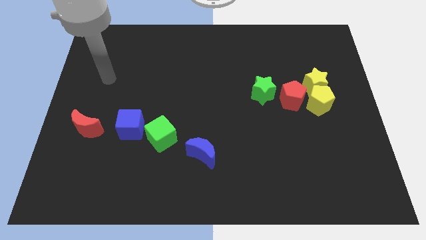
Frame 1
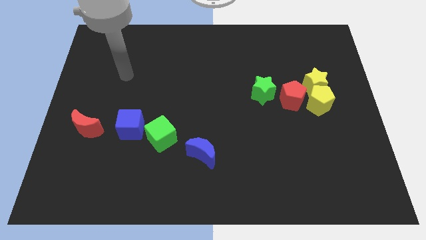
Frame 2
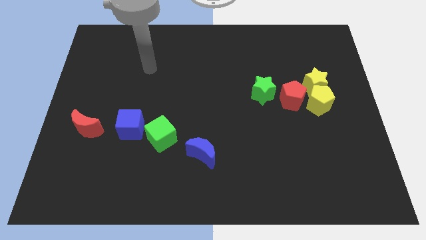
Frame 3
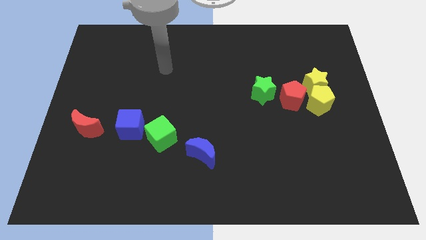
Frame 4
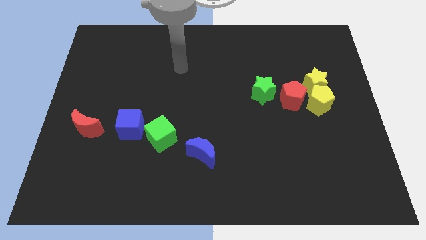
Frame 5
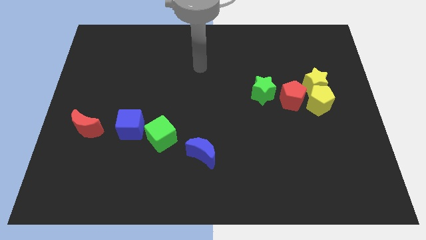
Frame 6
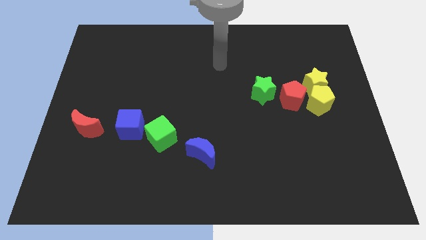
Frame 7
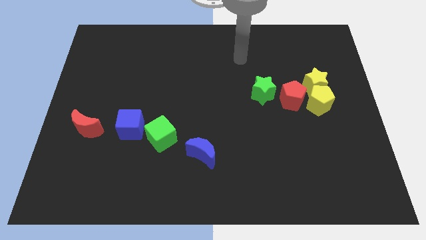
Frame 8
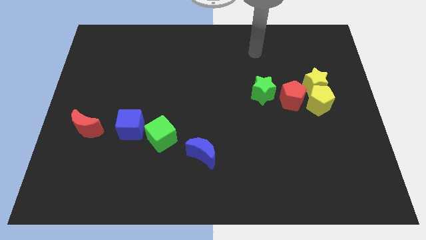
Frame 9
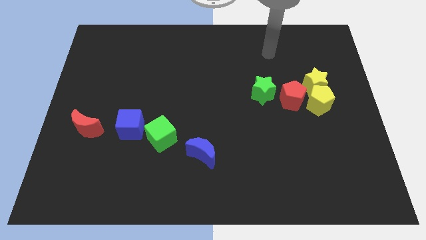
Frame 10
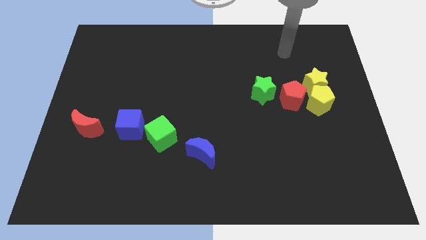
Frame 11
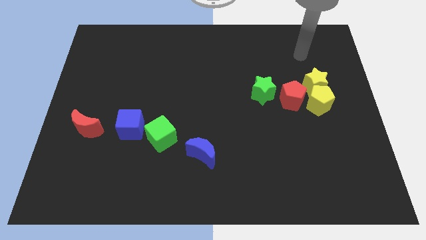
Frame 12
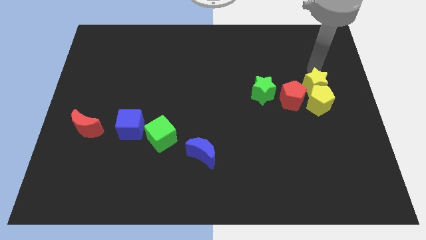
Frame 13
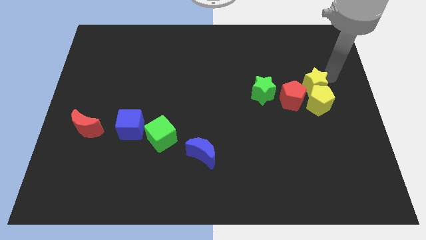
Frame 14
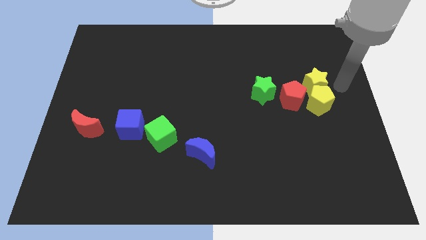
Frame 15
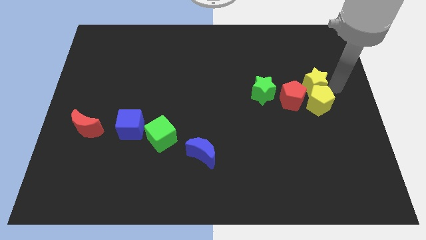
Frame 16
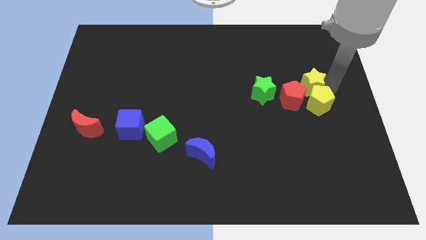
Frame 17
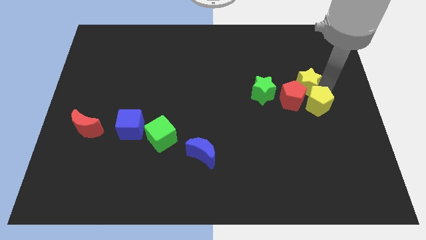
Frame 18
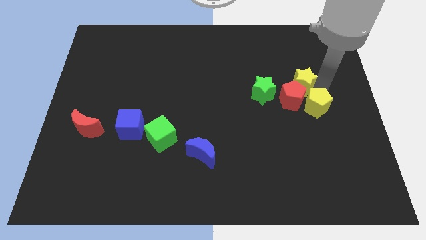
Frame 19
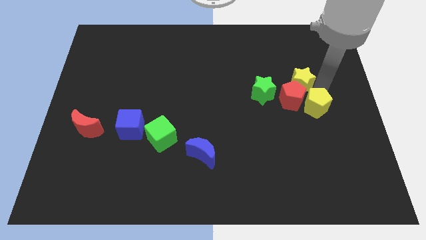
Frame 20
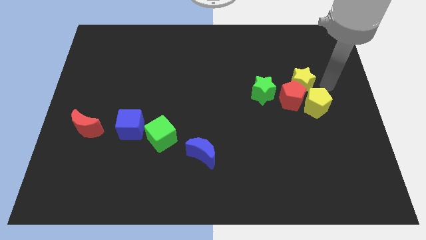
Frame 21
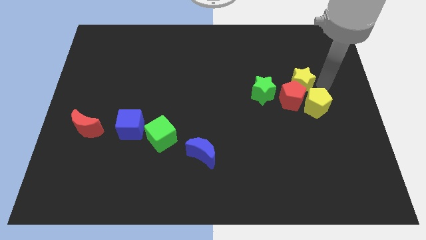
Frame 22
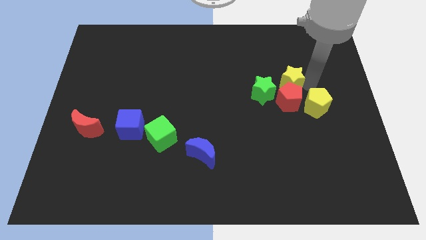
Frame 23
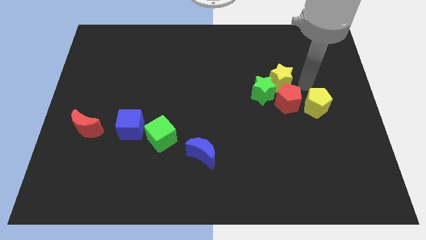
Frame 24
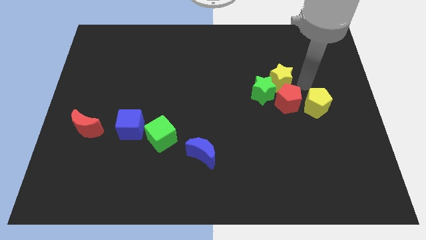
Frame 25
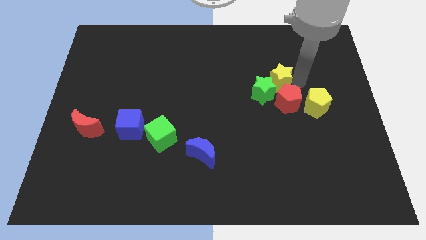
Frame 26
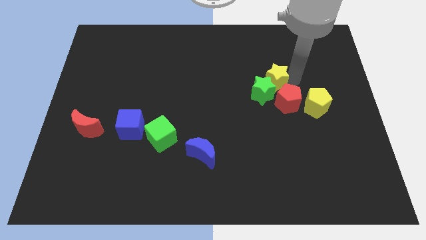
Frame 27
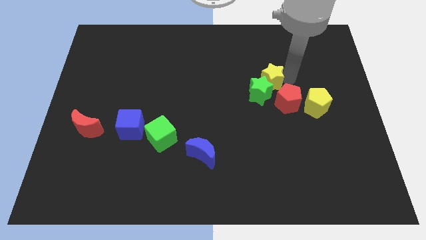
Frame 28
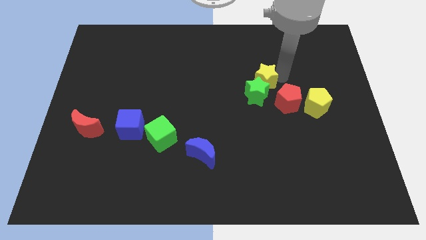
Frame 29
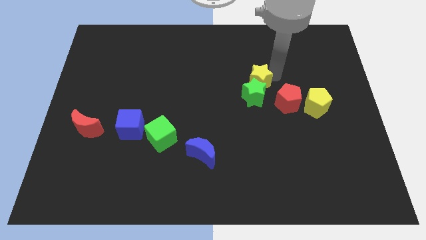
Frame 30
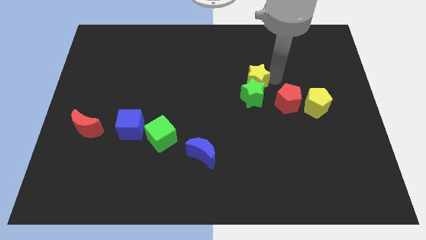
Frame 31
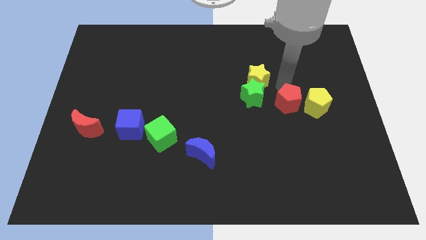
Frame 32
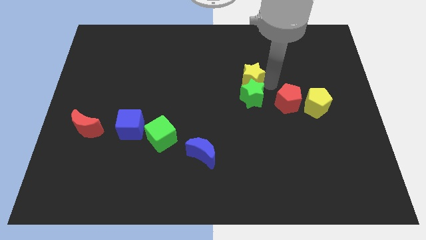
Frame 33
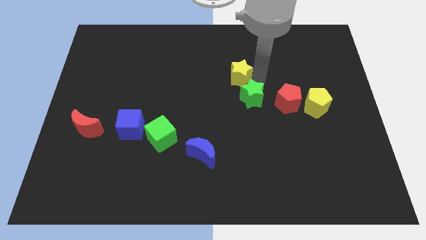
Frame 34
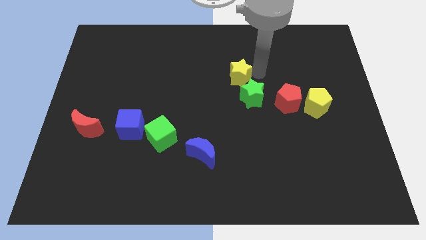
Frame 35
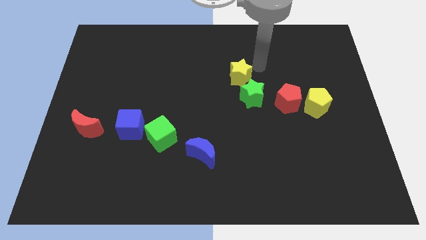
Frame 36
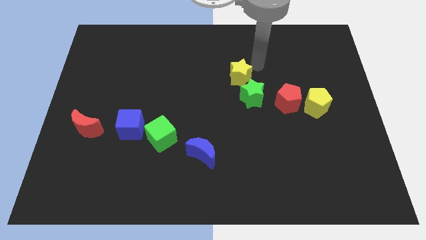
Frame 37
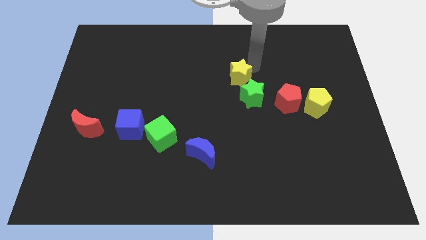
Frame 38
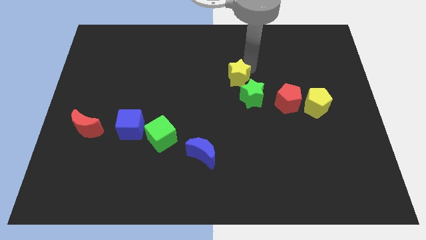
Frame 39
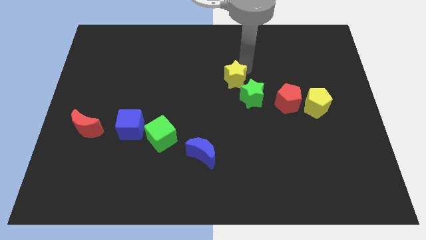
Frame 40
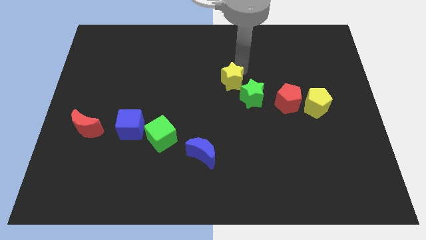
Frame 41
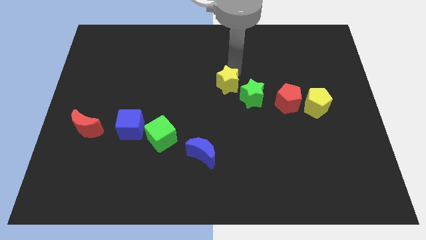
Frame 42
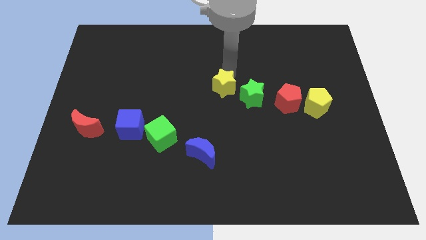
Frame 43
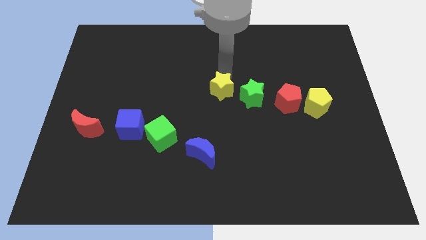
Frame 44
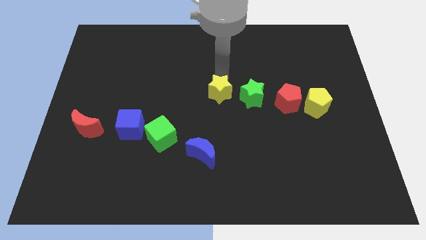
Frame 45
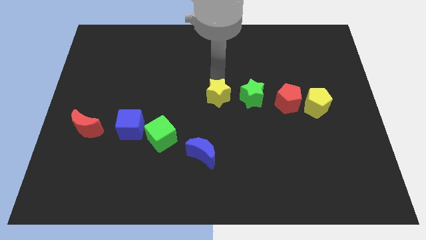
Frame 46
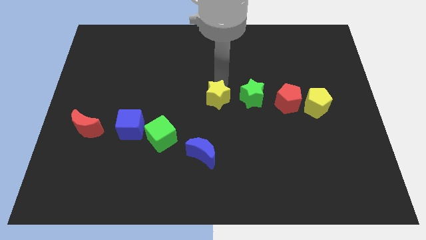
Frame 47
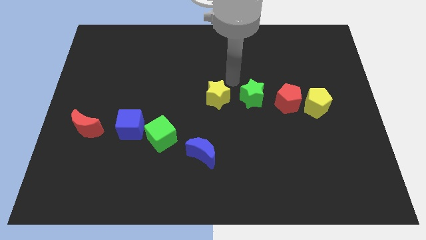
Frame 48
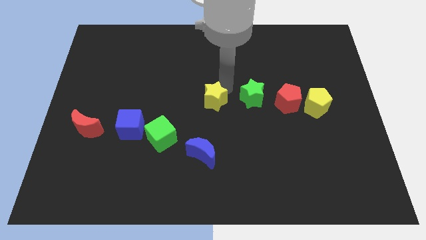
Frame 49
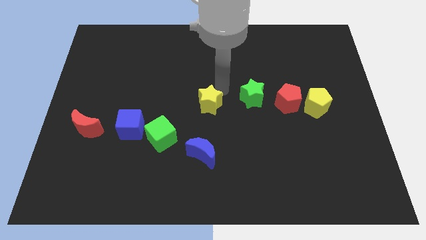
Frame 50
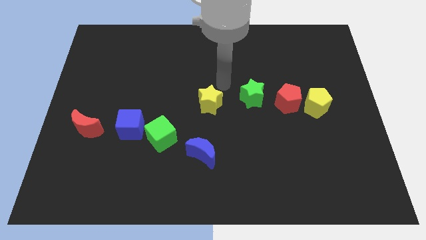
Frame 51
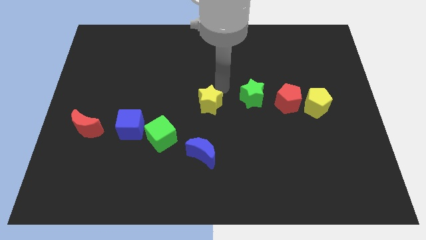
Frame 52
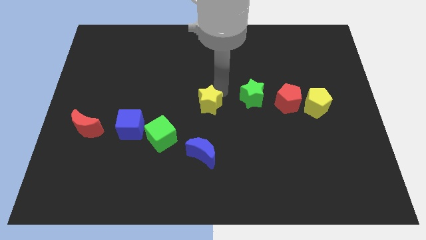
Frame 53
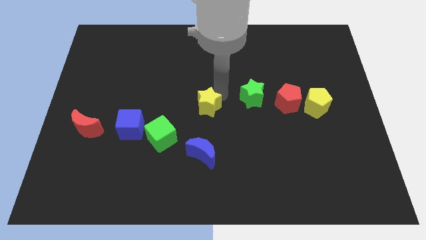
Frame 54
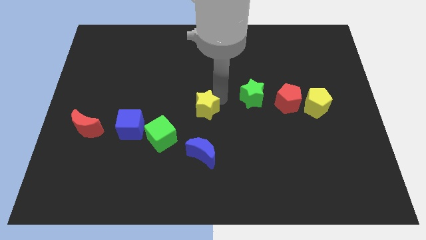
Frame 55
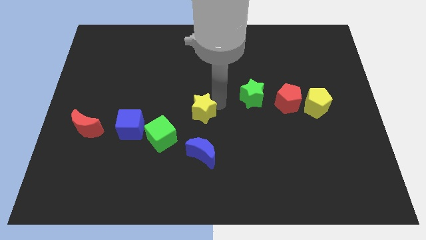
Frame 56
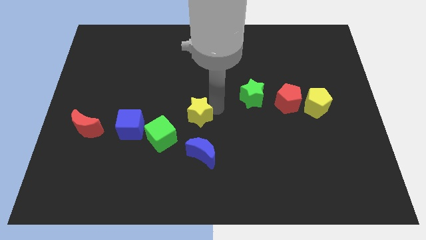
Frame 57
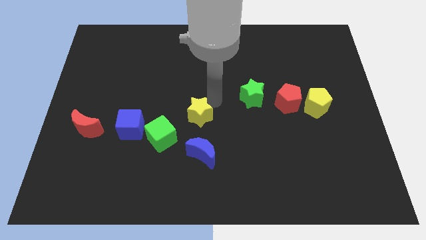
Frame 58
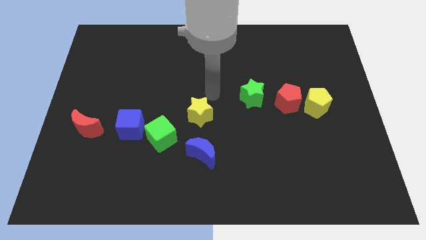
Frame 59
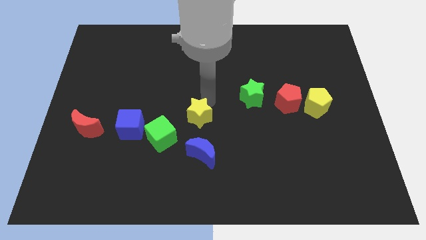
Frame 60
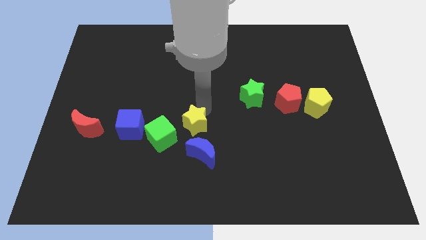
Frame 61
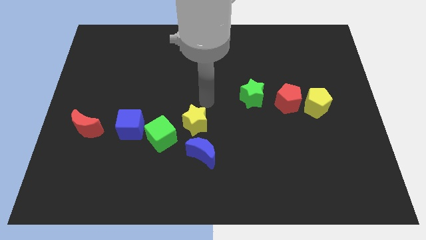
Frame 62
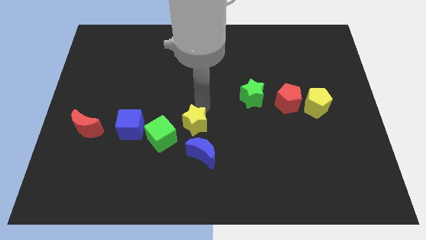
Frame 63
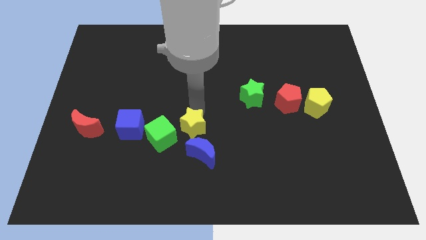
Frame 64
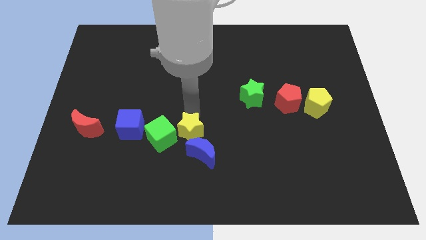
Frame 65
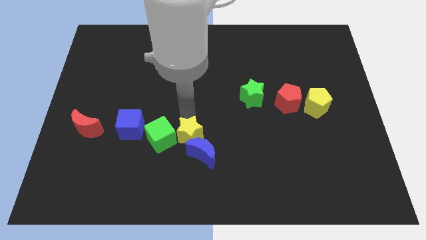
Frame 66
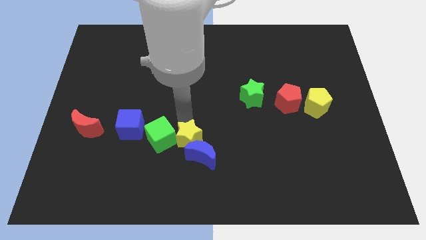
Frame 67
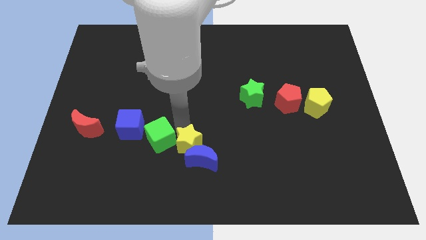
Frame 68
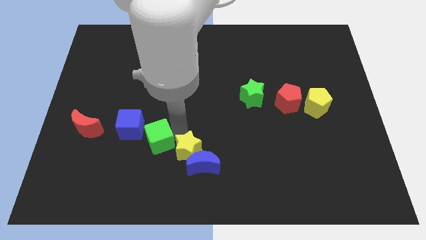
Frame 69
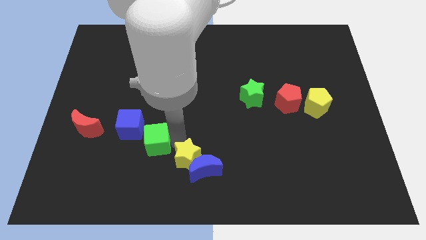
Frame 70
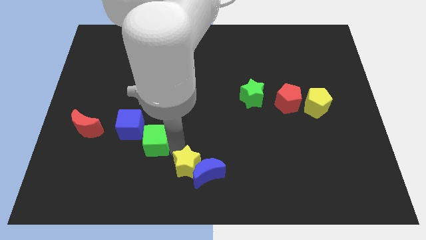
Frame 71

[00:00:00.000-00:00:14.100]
move the yellow star diagonally down and to the left of the blue moon
